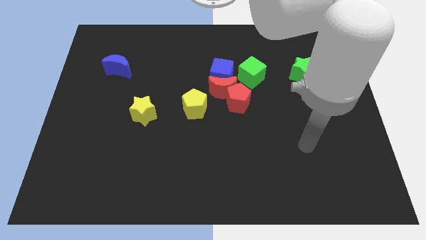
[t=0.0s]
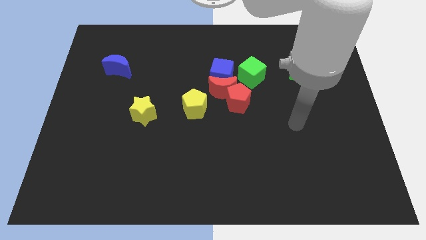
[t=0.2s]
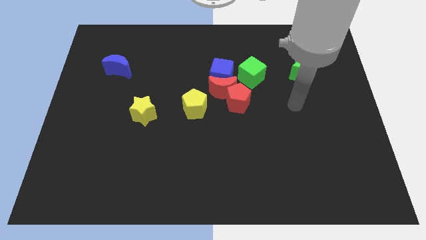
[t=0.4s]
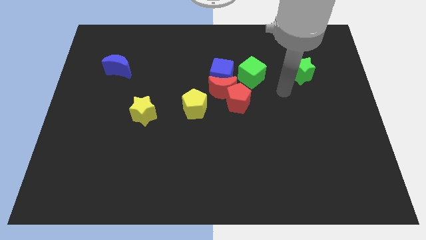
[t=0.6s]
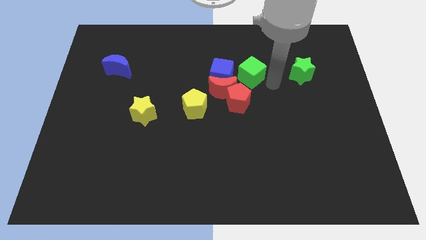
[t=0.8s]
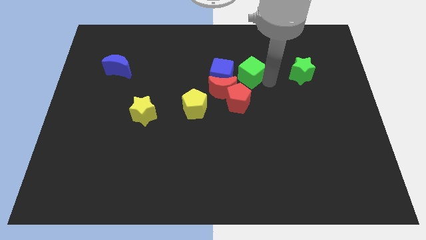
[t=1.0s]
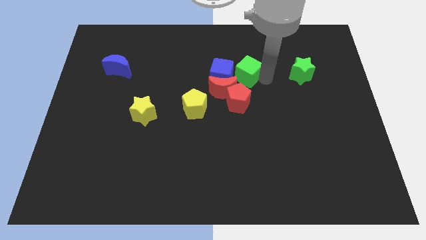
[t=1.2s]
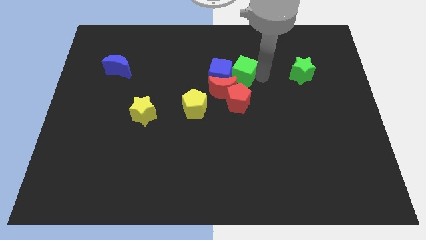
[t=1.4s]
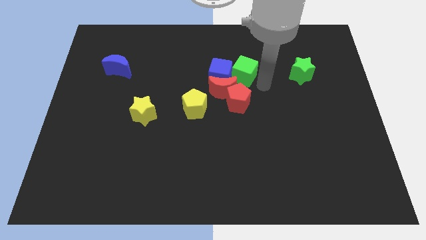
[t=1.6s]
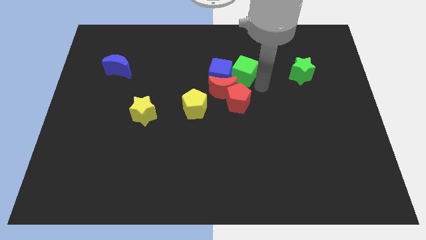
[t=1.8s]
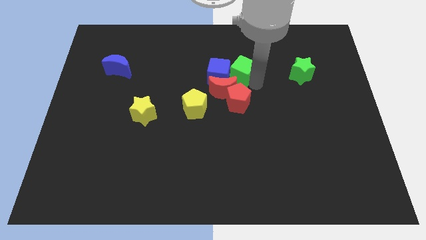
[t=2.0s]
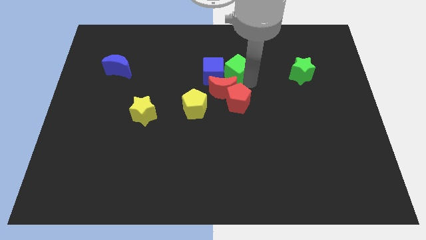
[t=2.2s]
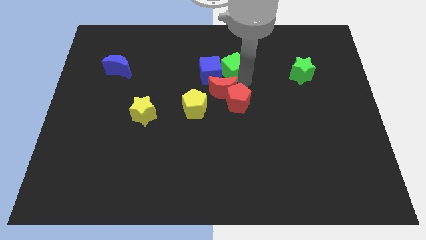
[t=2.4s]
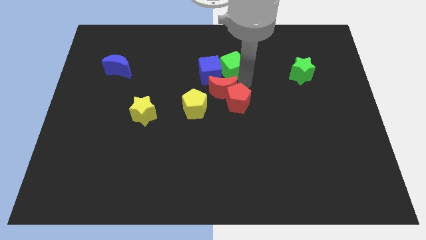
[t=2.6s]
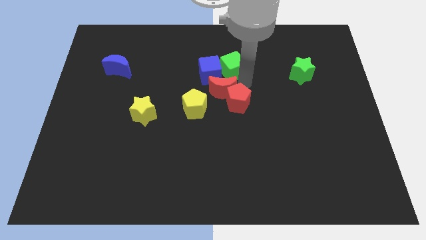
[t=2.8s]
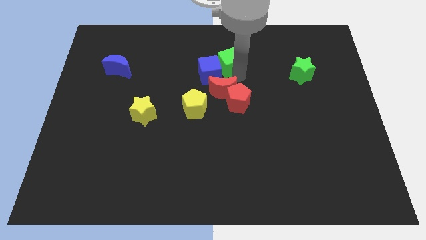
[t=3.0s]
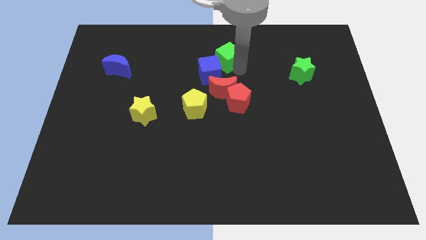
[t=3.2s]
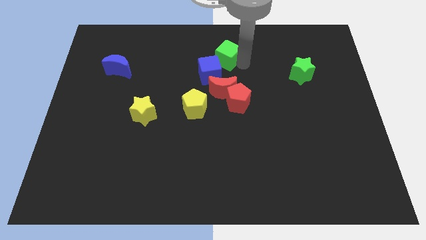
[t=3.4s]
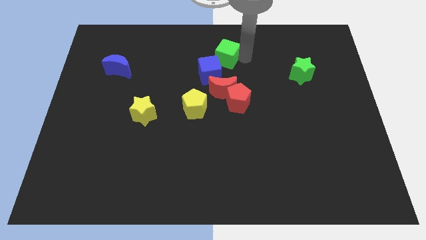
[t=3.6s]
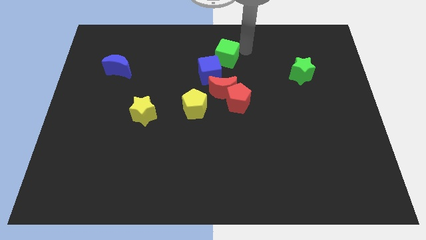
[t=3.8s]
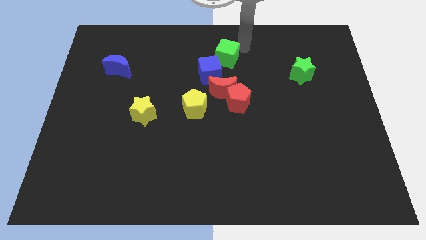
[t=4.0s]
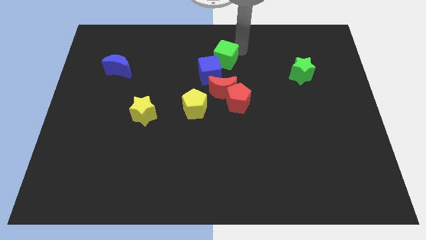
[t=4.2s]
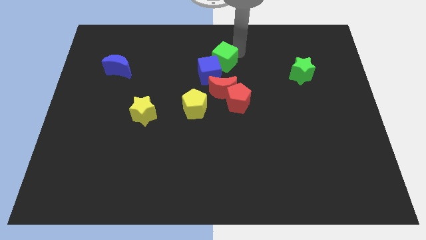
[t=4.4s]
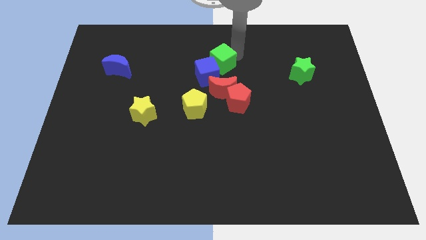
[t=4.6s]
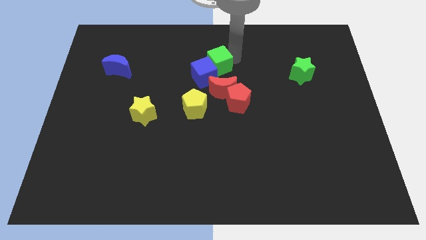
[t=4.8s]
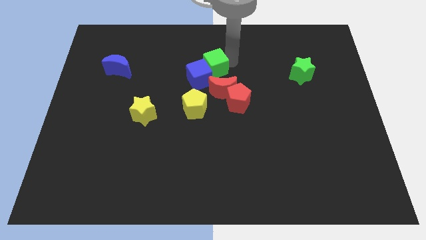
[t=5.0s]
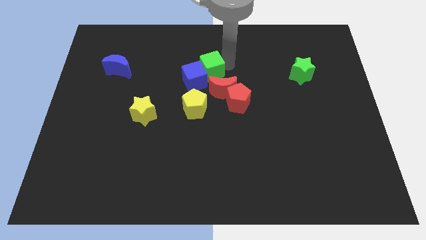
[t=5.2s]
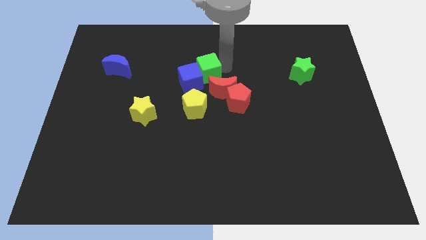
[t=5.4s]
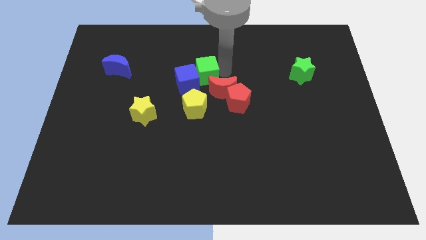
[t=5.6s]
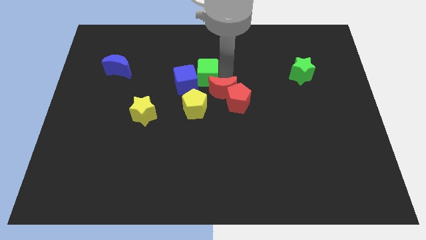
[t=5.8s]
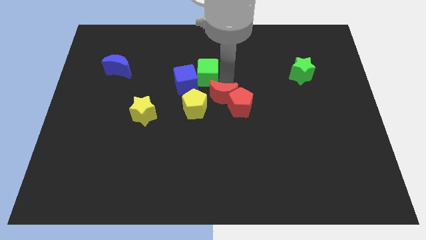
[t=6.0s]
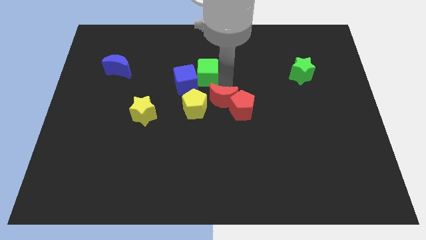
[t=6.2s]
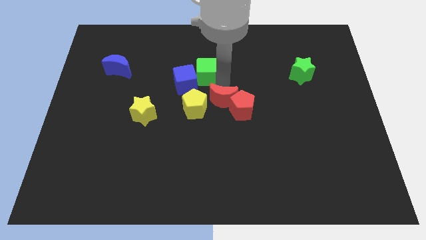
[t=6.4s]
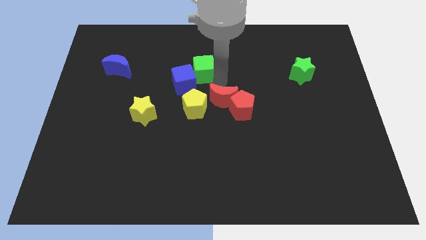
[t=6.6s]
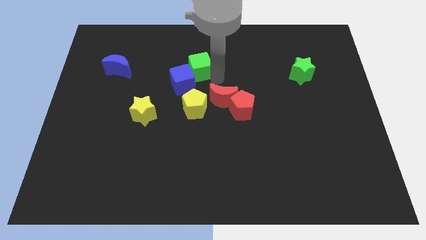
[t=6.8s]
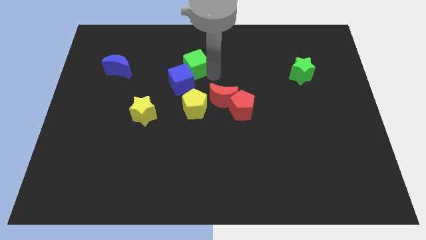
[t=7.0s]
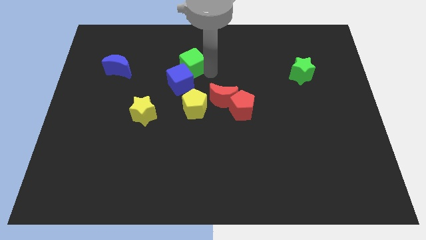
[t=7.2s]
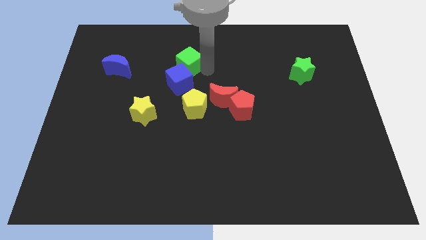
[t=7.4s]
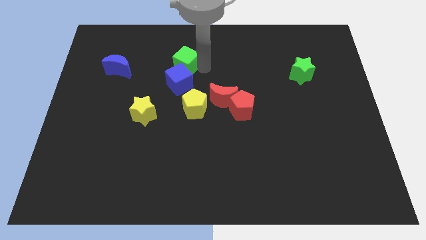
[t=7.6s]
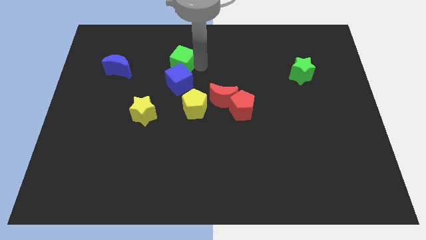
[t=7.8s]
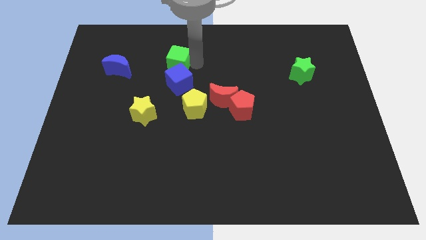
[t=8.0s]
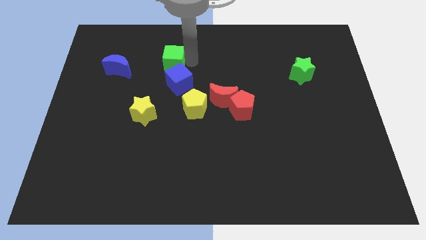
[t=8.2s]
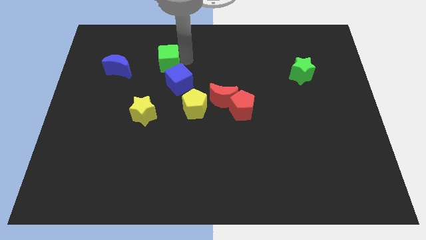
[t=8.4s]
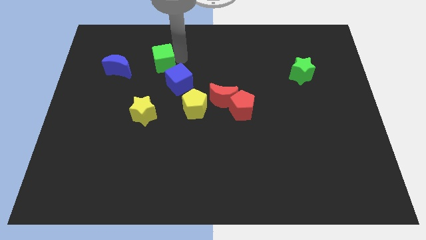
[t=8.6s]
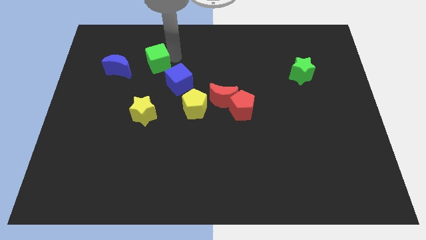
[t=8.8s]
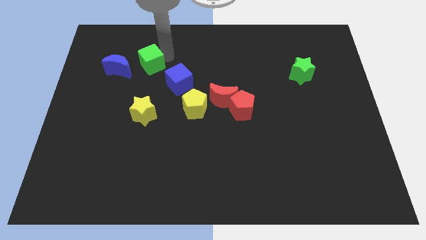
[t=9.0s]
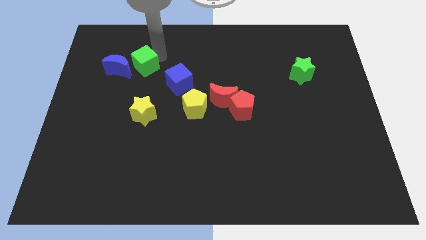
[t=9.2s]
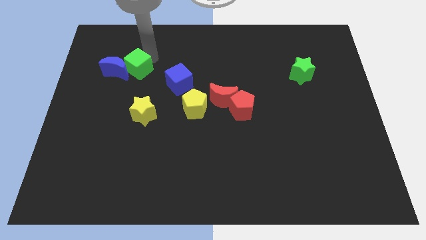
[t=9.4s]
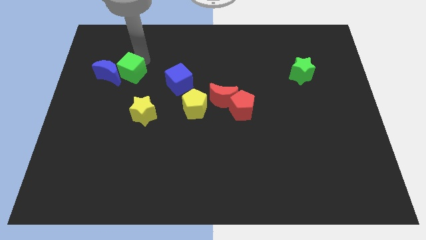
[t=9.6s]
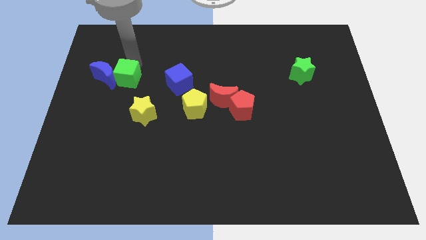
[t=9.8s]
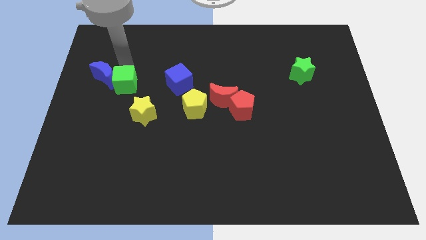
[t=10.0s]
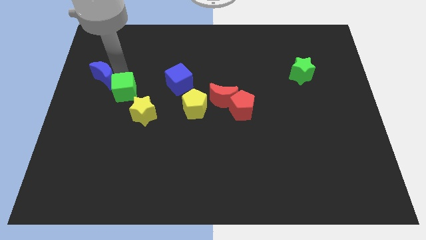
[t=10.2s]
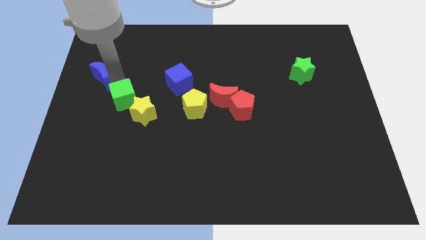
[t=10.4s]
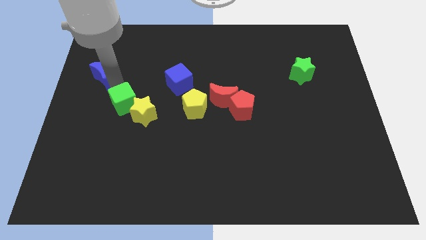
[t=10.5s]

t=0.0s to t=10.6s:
push the green cube to the yellow star

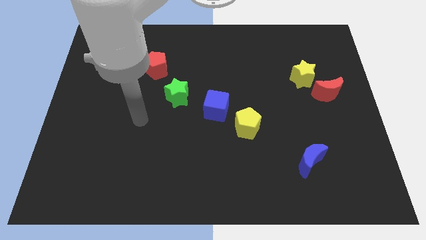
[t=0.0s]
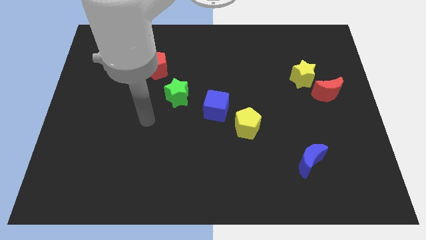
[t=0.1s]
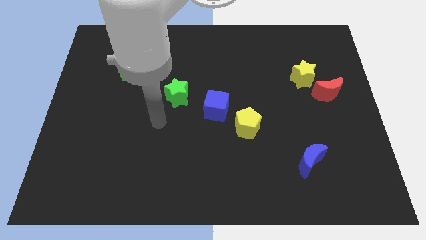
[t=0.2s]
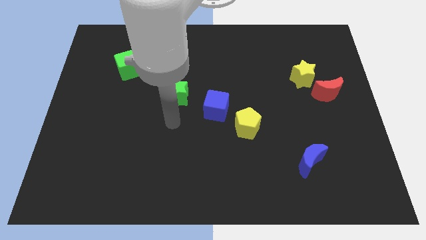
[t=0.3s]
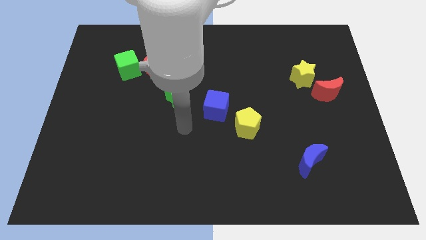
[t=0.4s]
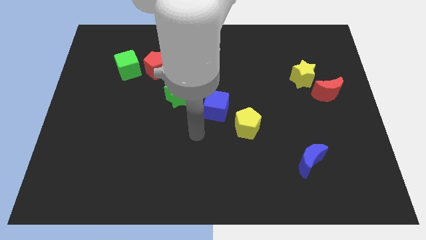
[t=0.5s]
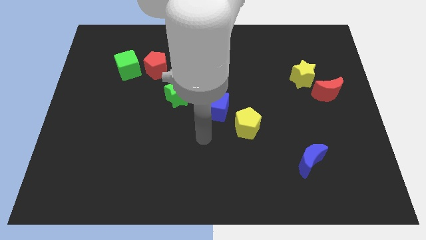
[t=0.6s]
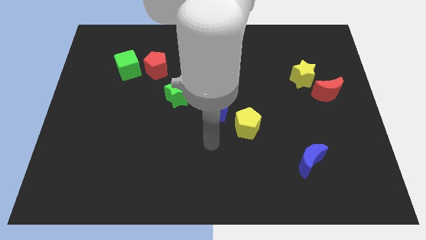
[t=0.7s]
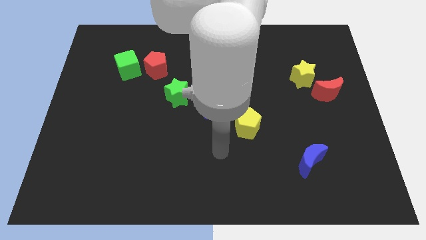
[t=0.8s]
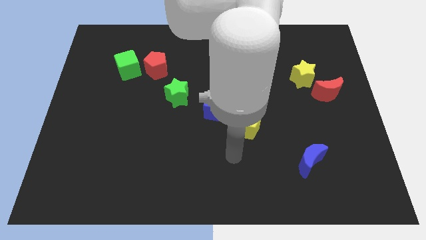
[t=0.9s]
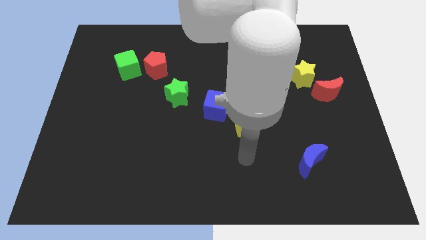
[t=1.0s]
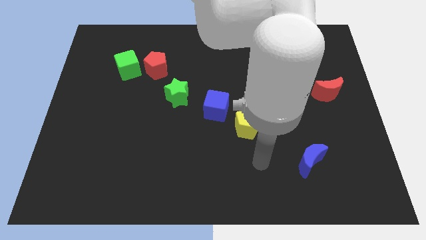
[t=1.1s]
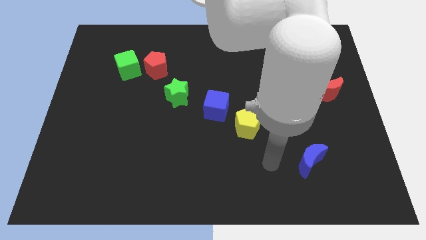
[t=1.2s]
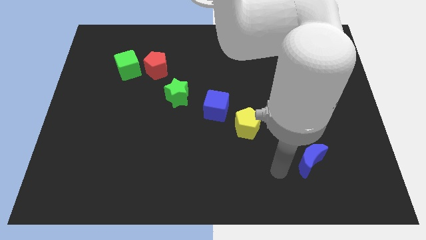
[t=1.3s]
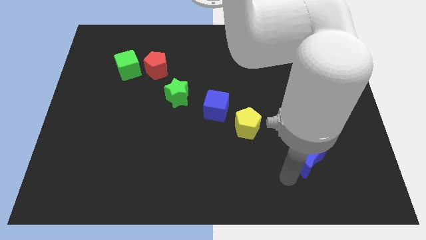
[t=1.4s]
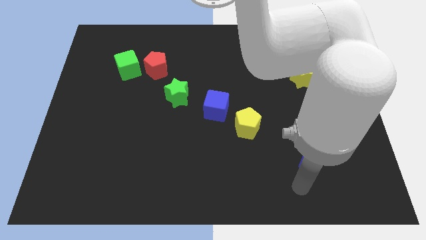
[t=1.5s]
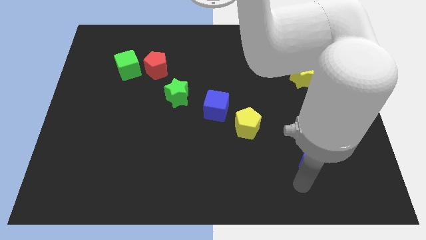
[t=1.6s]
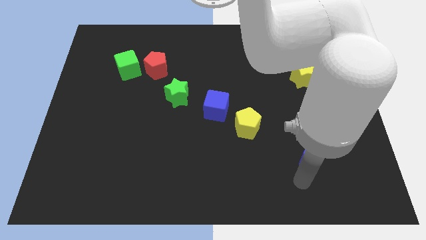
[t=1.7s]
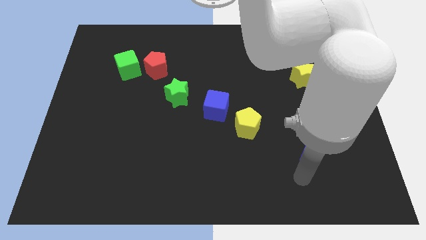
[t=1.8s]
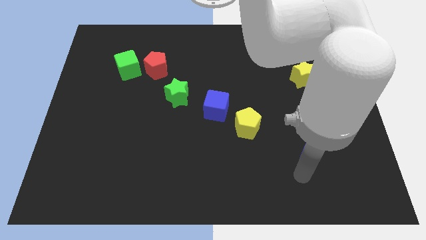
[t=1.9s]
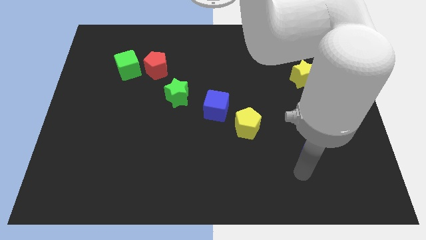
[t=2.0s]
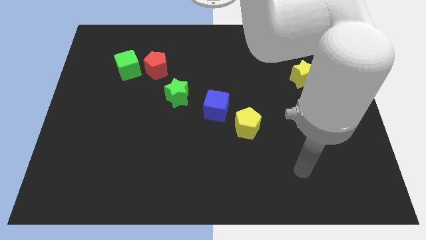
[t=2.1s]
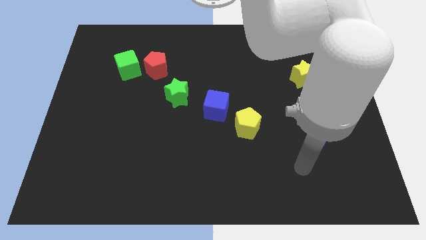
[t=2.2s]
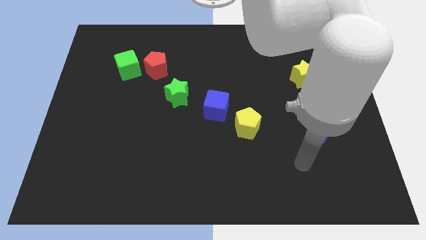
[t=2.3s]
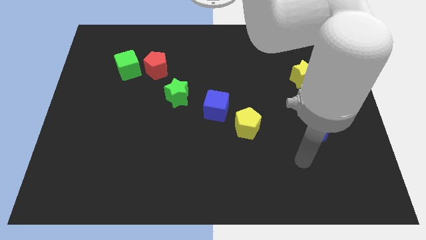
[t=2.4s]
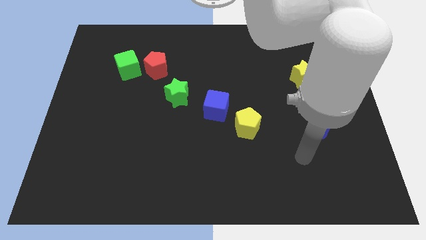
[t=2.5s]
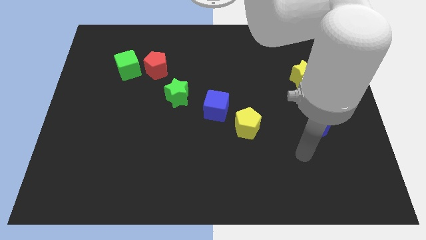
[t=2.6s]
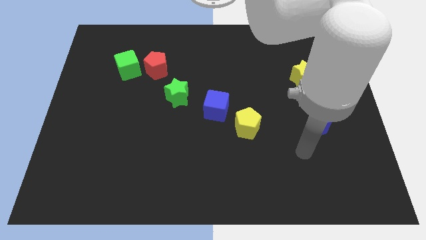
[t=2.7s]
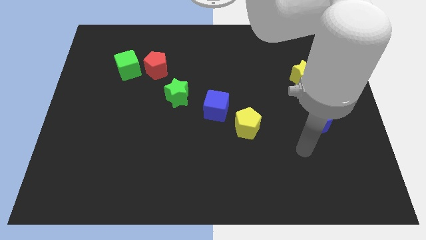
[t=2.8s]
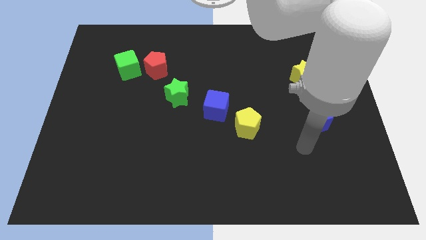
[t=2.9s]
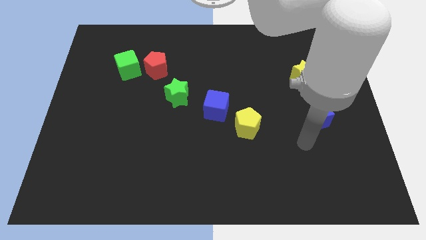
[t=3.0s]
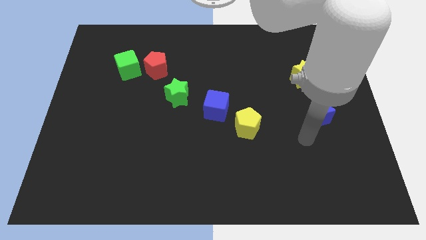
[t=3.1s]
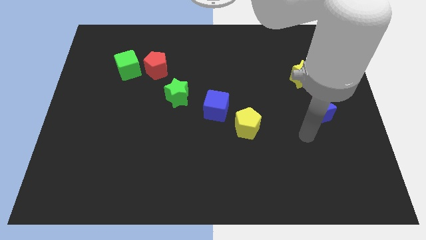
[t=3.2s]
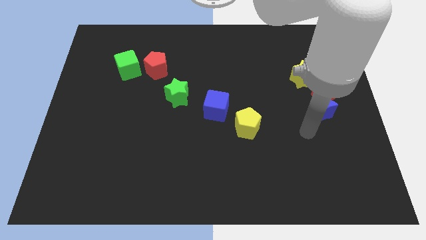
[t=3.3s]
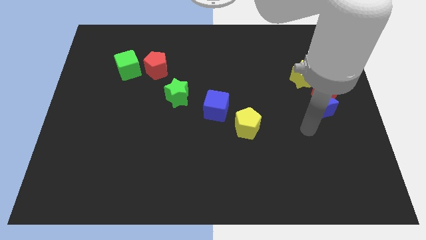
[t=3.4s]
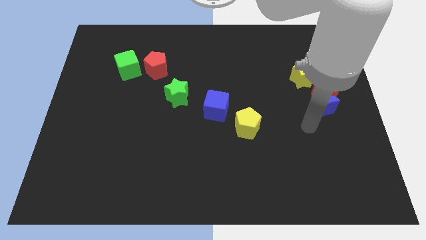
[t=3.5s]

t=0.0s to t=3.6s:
put the blue moon to the red moon
